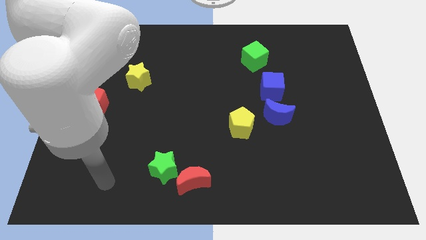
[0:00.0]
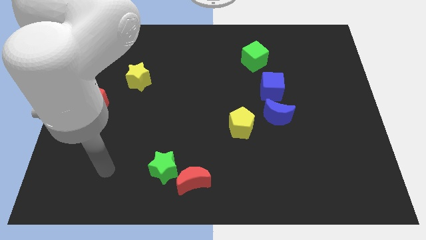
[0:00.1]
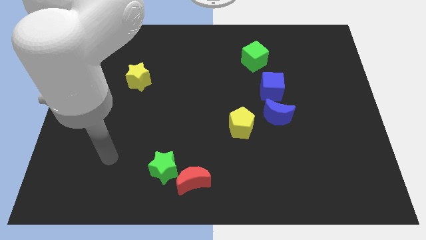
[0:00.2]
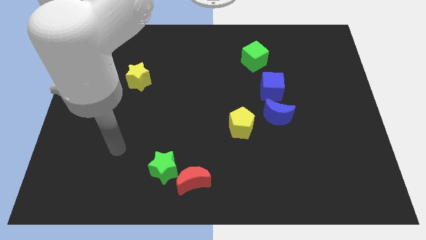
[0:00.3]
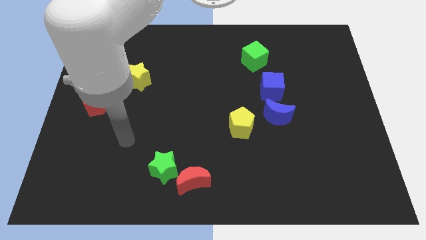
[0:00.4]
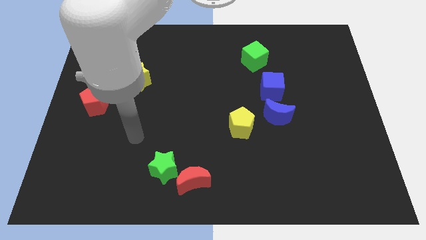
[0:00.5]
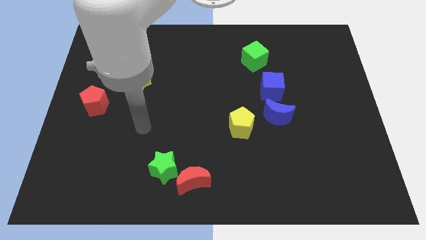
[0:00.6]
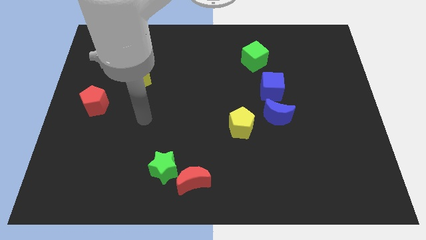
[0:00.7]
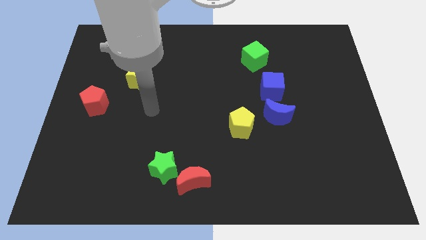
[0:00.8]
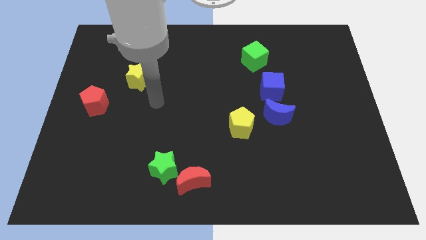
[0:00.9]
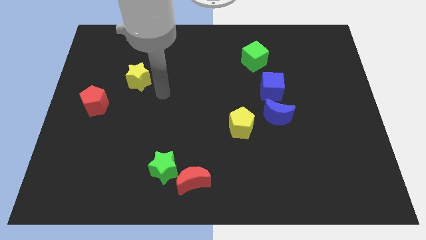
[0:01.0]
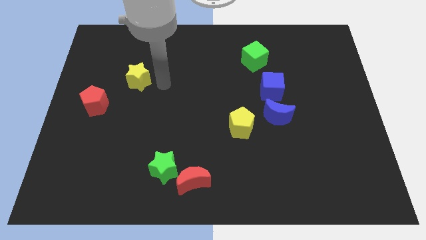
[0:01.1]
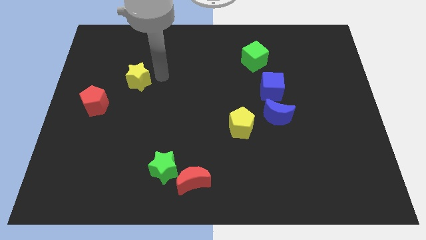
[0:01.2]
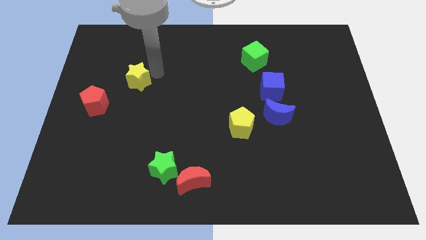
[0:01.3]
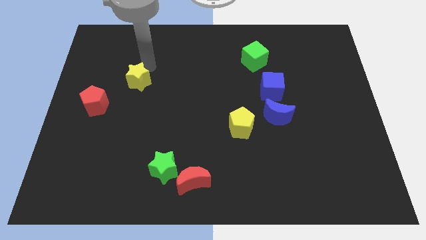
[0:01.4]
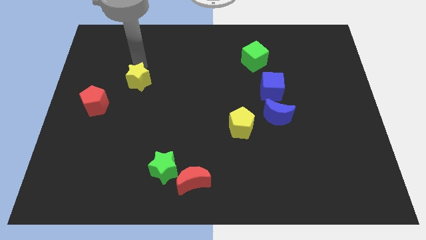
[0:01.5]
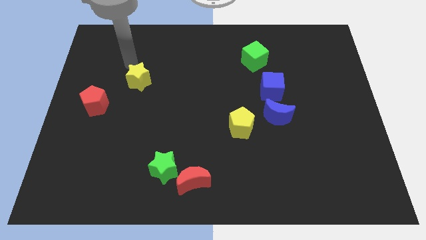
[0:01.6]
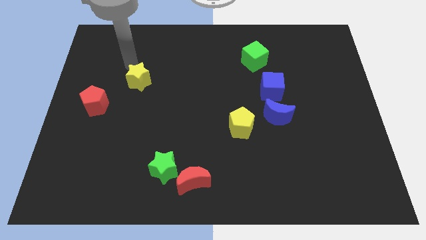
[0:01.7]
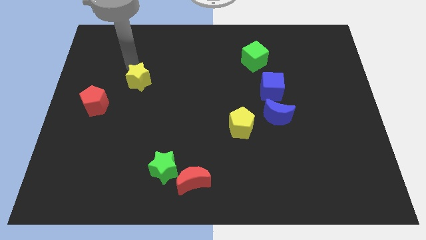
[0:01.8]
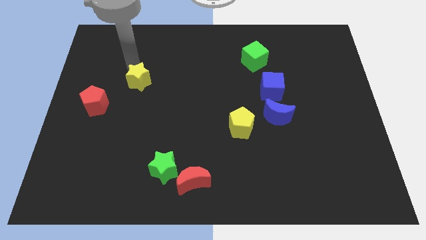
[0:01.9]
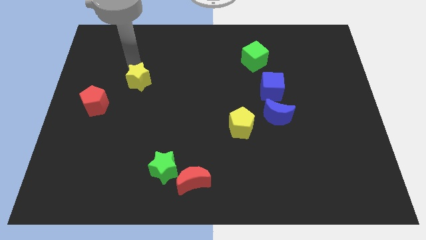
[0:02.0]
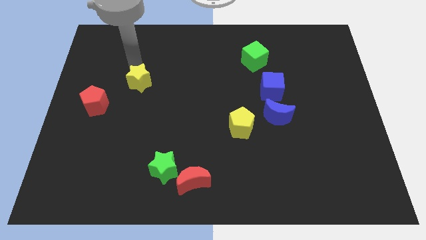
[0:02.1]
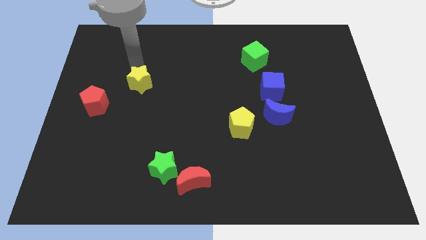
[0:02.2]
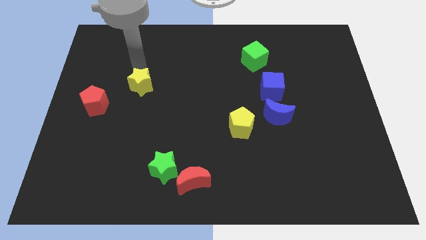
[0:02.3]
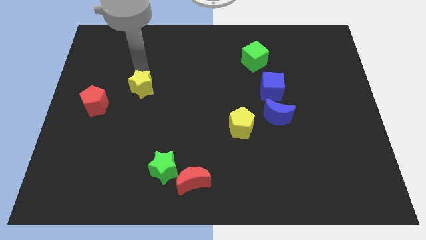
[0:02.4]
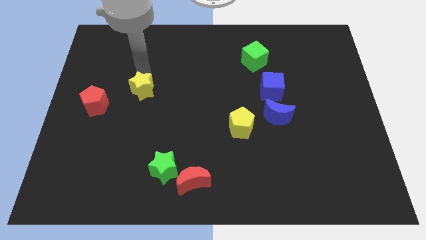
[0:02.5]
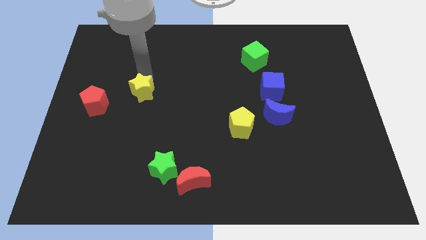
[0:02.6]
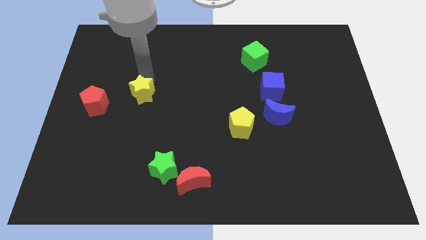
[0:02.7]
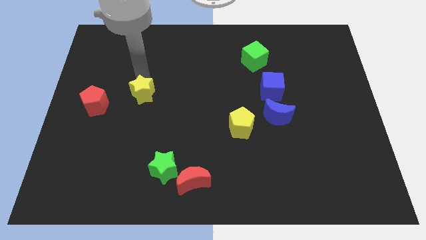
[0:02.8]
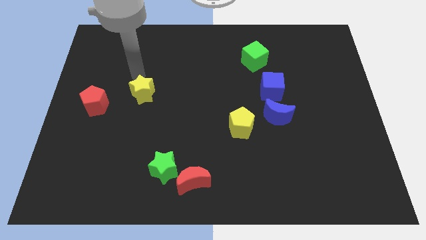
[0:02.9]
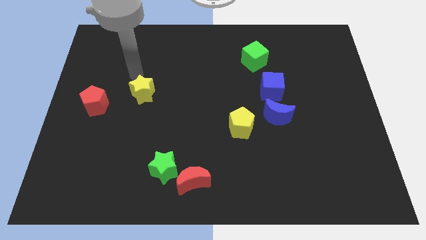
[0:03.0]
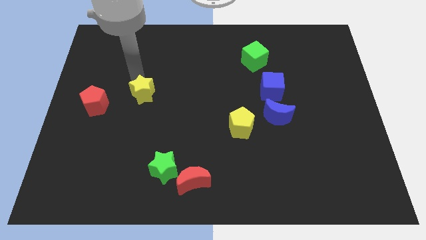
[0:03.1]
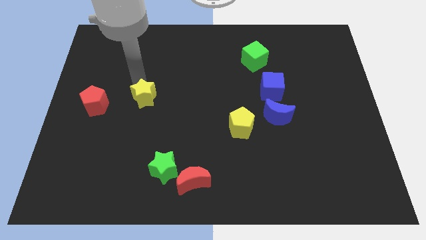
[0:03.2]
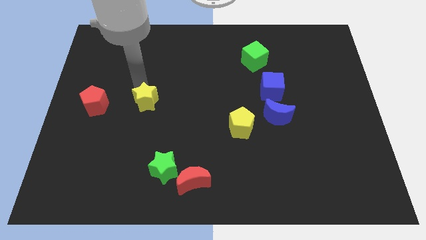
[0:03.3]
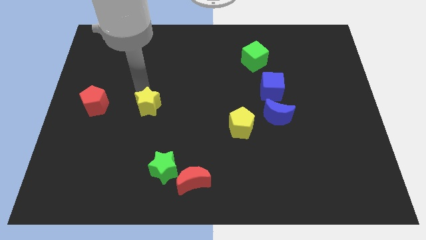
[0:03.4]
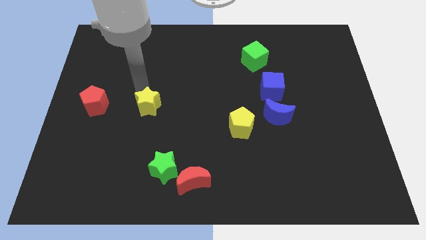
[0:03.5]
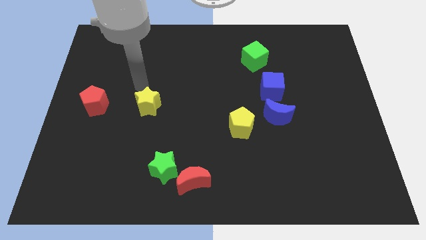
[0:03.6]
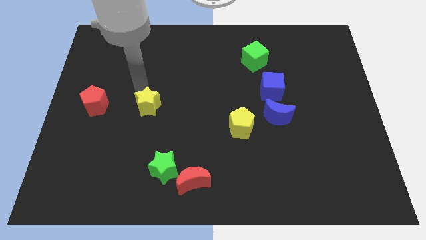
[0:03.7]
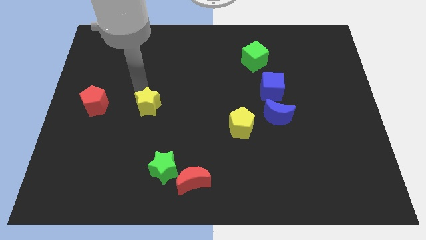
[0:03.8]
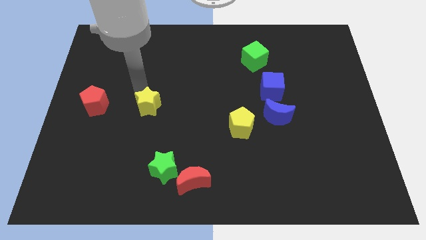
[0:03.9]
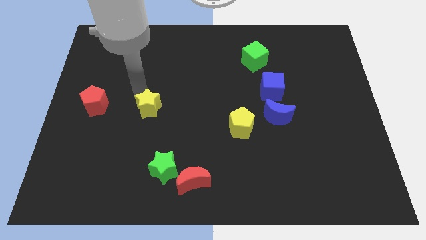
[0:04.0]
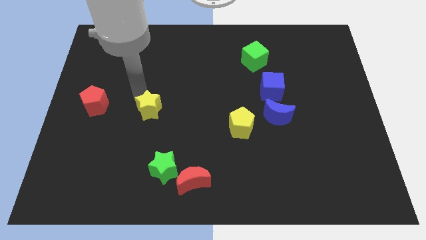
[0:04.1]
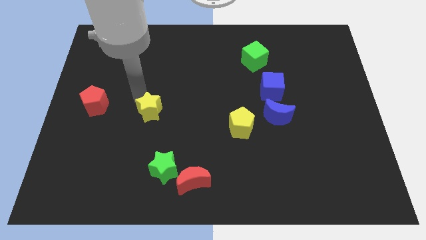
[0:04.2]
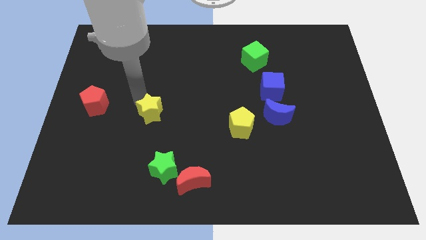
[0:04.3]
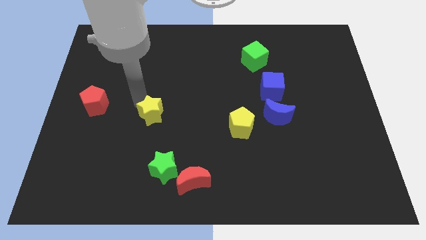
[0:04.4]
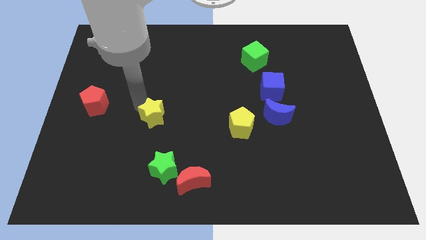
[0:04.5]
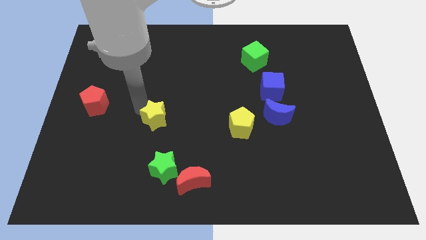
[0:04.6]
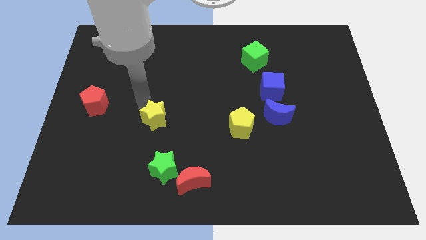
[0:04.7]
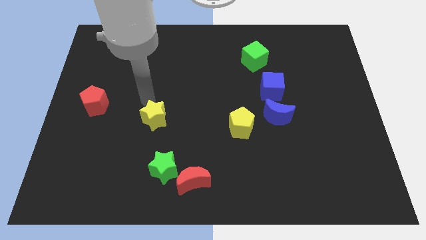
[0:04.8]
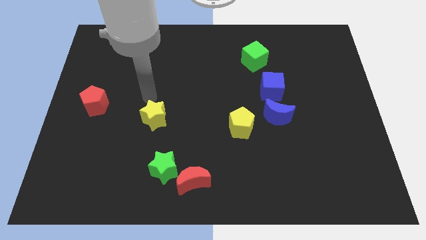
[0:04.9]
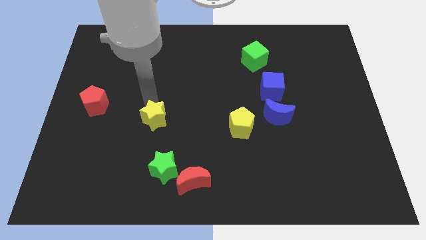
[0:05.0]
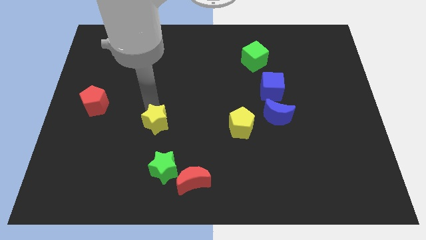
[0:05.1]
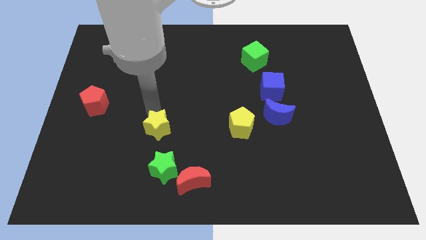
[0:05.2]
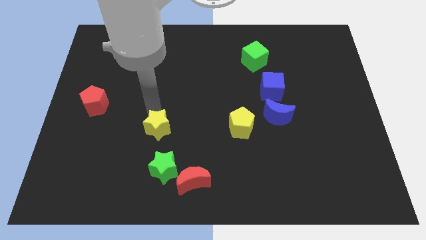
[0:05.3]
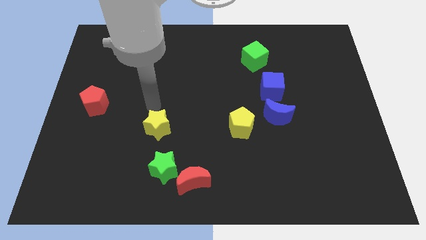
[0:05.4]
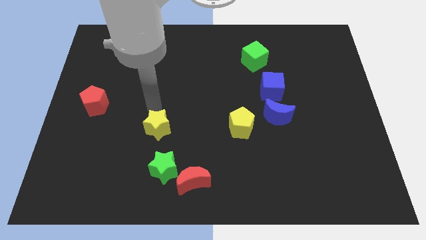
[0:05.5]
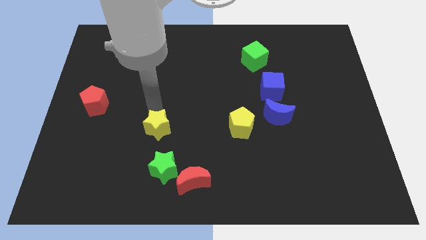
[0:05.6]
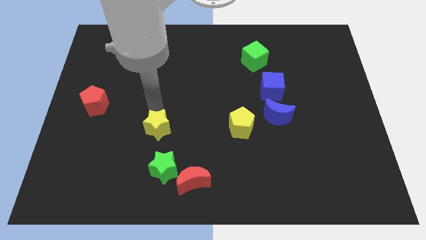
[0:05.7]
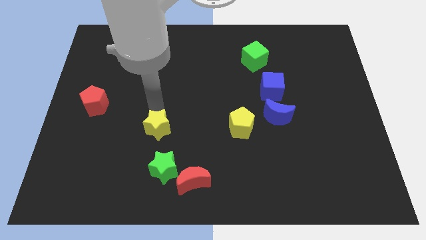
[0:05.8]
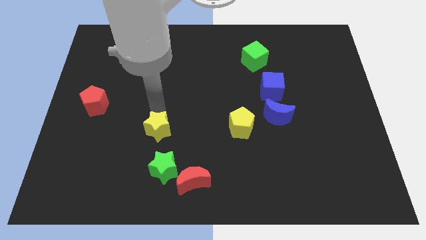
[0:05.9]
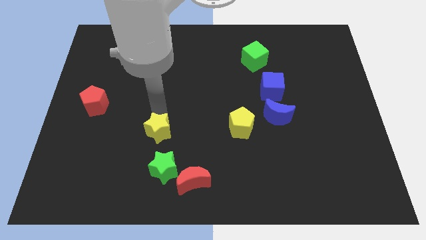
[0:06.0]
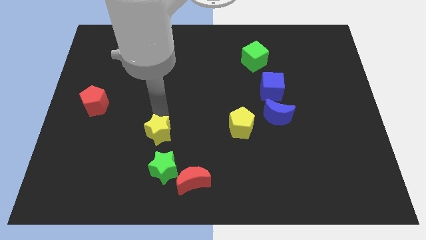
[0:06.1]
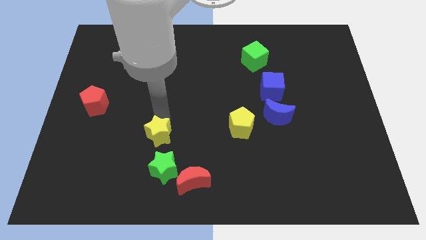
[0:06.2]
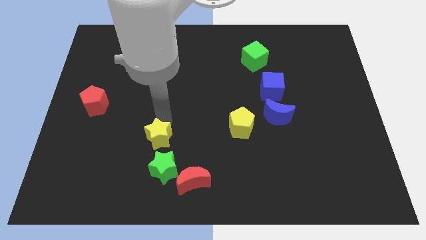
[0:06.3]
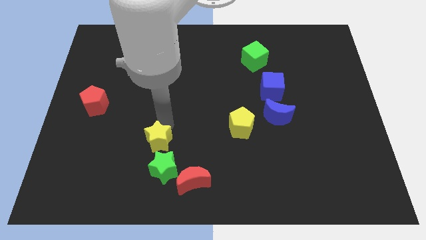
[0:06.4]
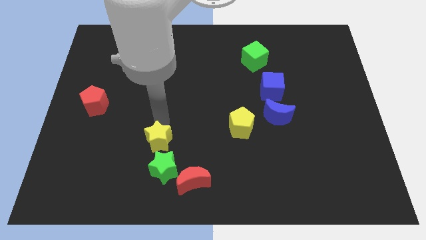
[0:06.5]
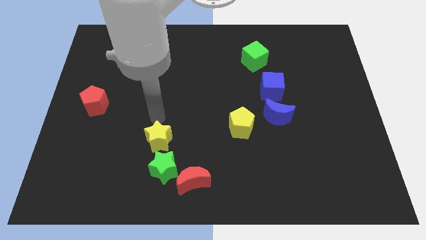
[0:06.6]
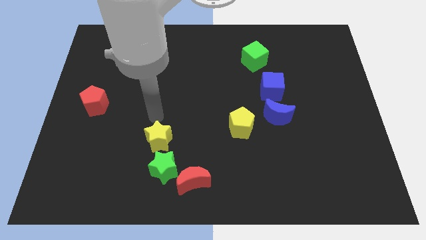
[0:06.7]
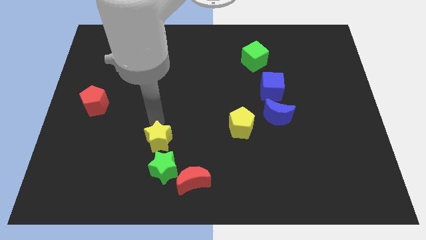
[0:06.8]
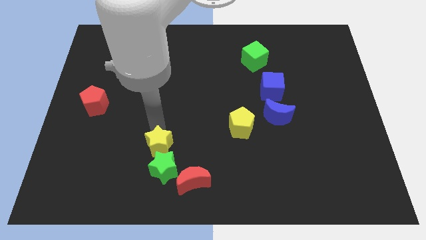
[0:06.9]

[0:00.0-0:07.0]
move the yellow star to the green star

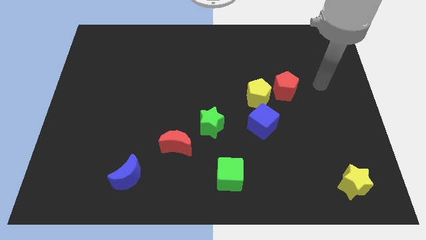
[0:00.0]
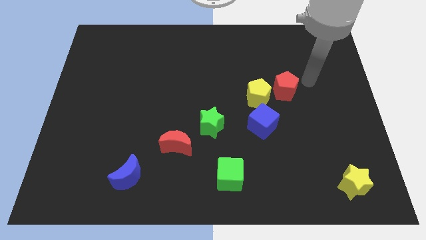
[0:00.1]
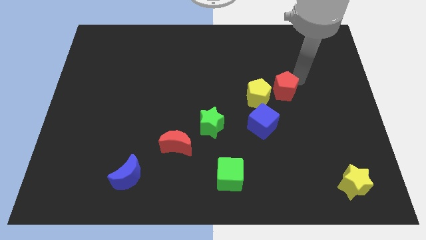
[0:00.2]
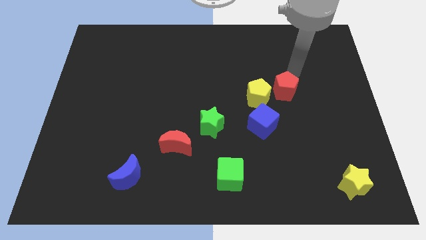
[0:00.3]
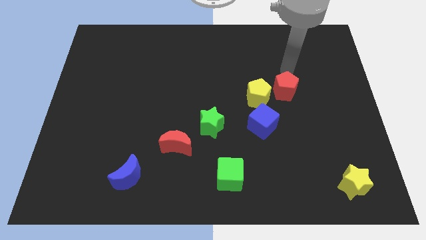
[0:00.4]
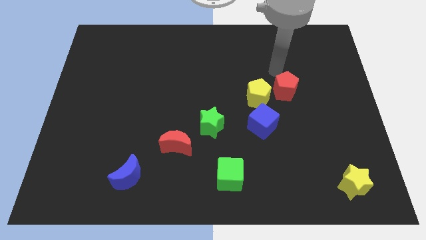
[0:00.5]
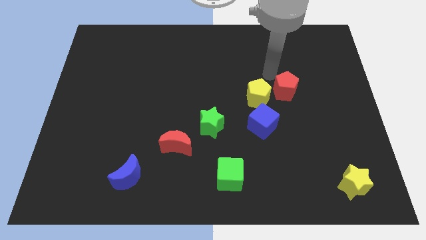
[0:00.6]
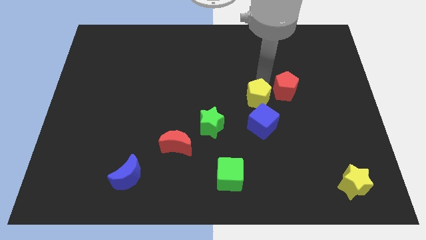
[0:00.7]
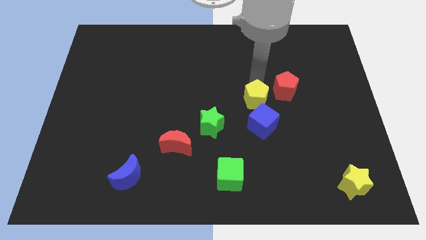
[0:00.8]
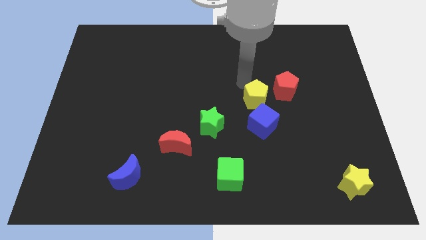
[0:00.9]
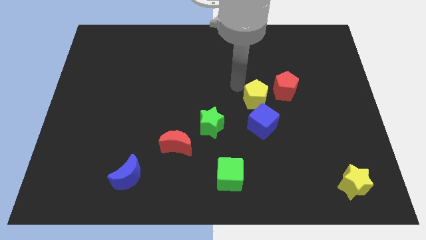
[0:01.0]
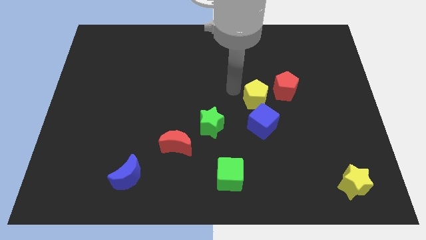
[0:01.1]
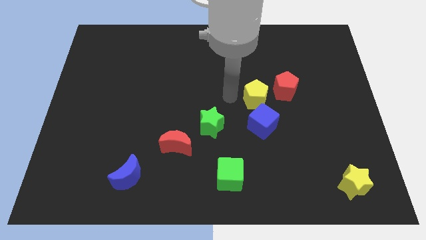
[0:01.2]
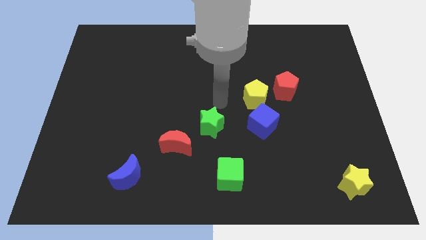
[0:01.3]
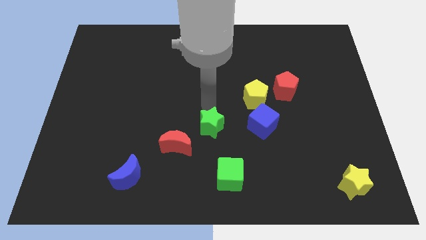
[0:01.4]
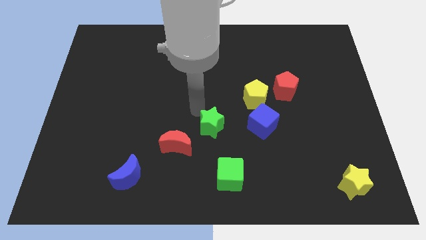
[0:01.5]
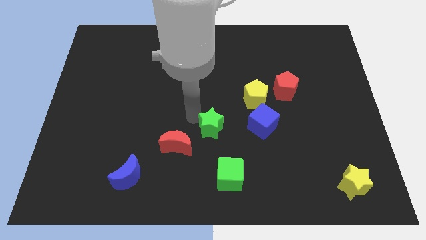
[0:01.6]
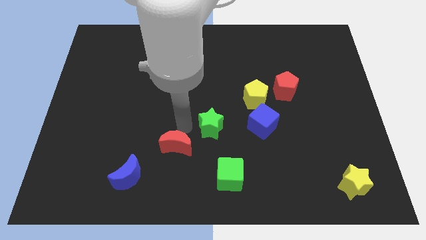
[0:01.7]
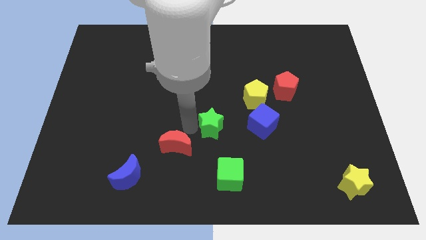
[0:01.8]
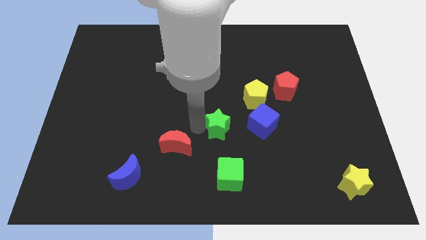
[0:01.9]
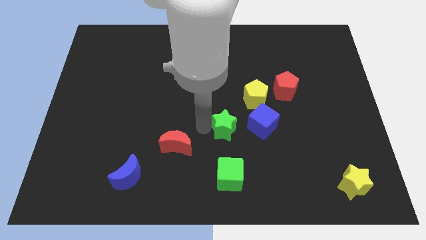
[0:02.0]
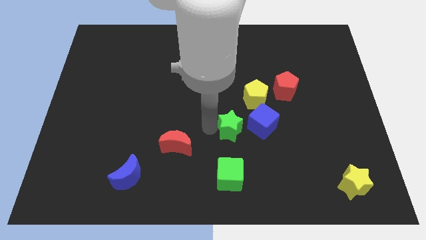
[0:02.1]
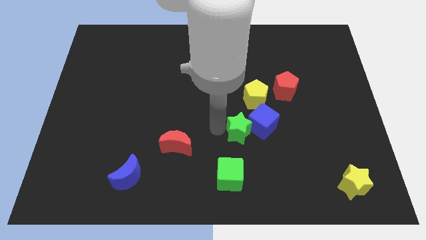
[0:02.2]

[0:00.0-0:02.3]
put the green star next to the blue cube
